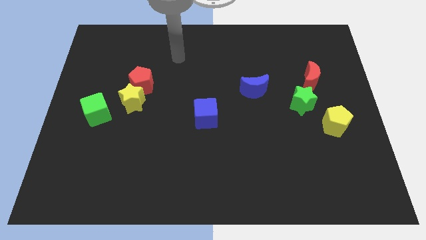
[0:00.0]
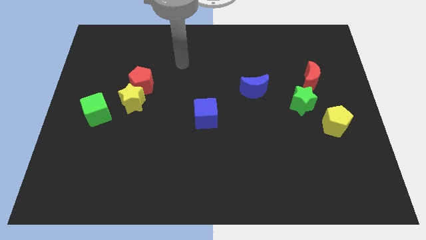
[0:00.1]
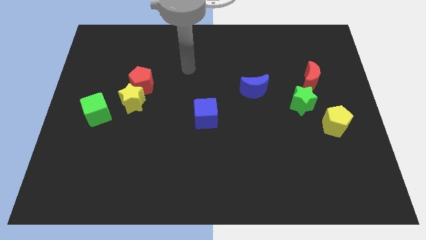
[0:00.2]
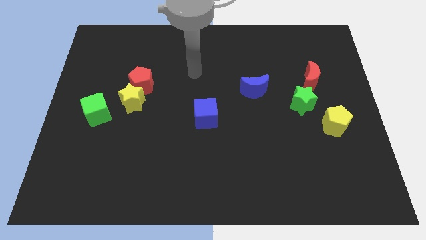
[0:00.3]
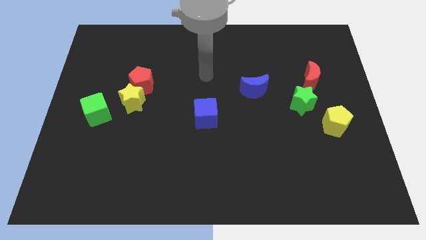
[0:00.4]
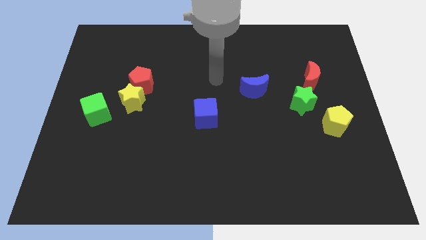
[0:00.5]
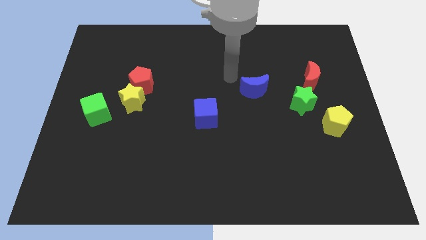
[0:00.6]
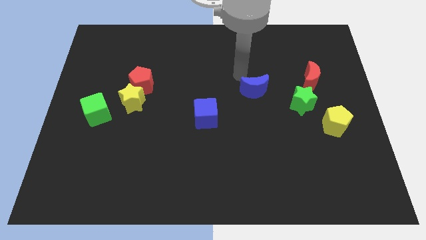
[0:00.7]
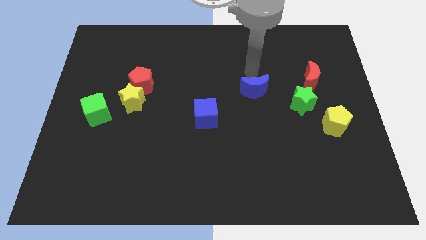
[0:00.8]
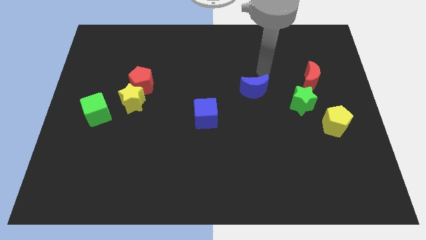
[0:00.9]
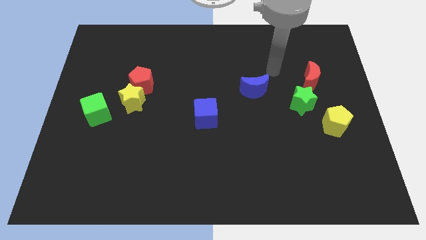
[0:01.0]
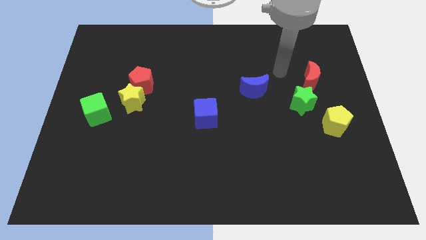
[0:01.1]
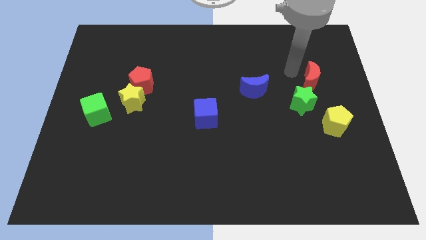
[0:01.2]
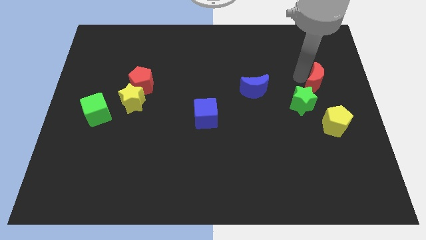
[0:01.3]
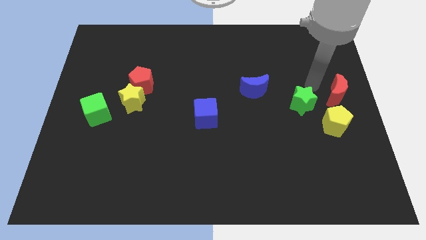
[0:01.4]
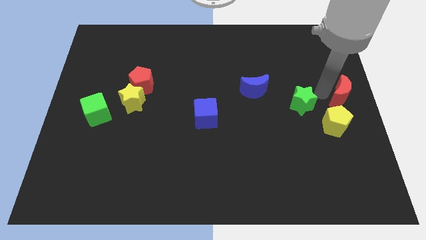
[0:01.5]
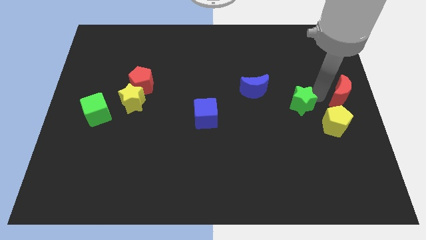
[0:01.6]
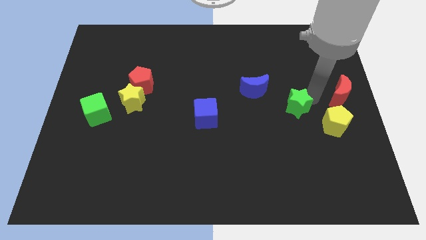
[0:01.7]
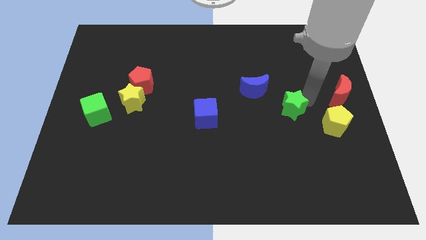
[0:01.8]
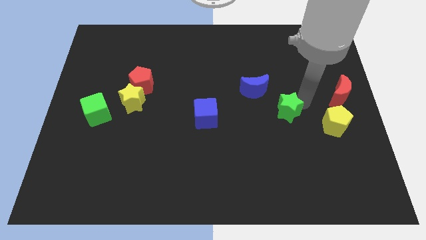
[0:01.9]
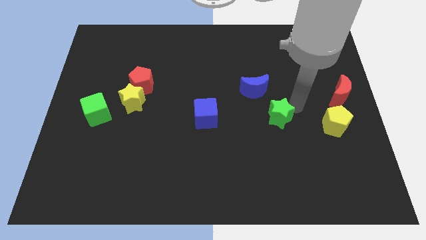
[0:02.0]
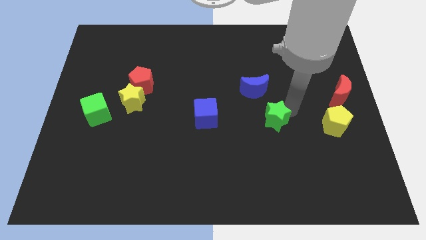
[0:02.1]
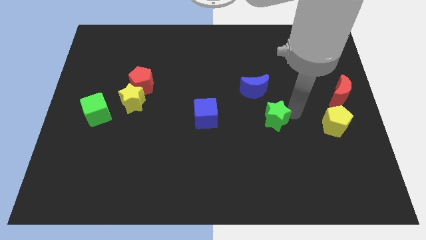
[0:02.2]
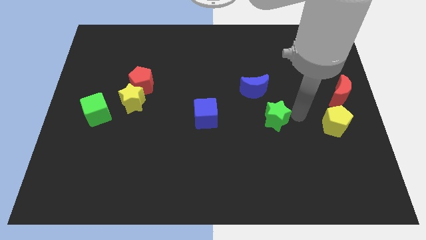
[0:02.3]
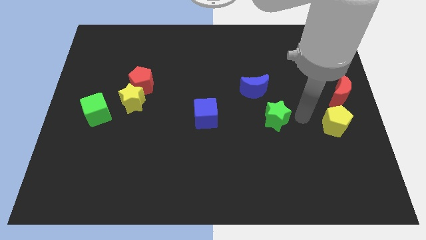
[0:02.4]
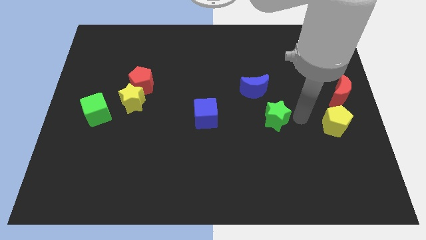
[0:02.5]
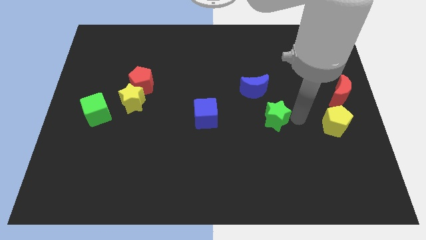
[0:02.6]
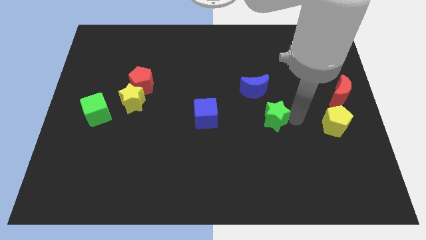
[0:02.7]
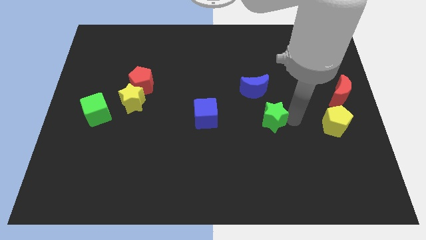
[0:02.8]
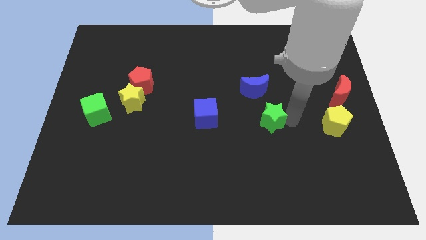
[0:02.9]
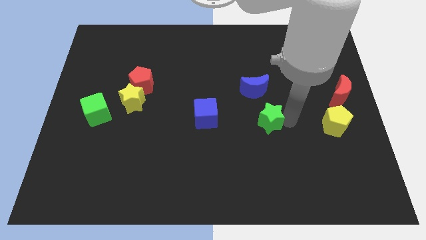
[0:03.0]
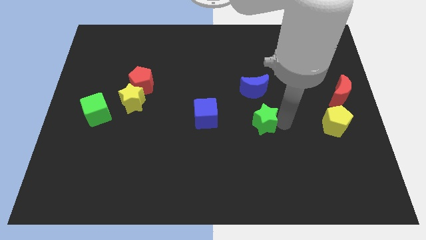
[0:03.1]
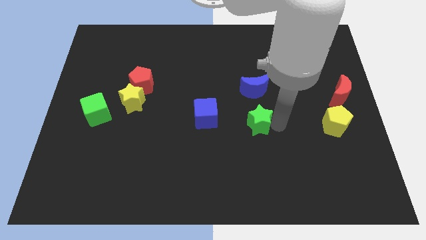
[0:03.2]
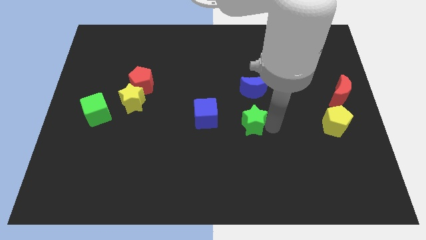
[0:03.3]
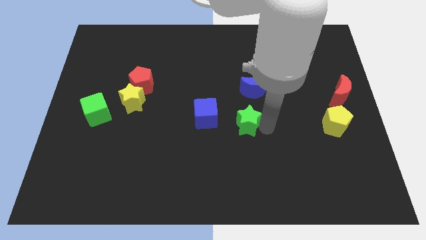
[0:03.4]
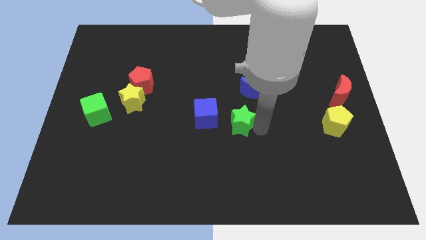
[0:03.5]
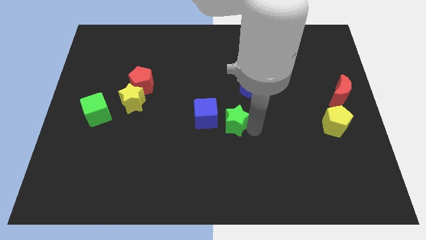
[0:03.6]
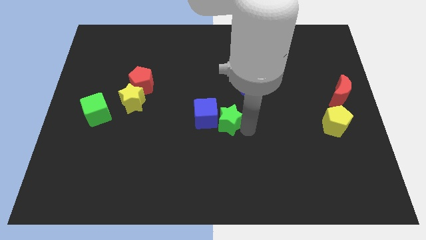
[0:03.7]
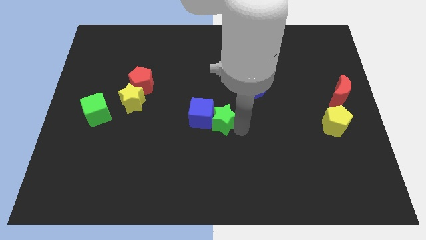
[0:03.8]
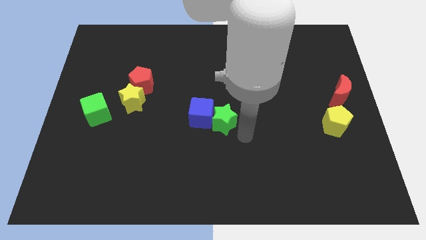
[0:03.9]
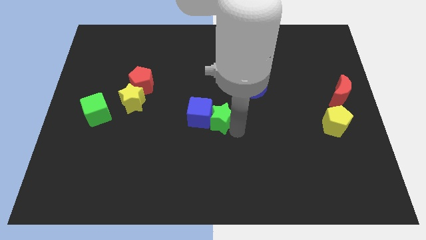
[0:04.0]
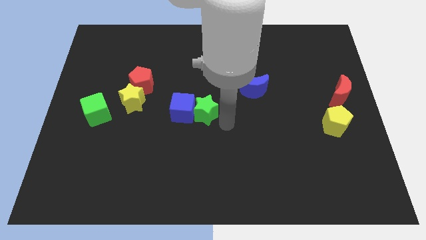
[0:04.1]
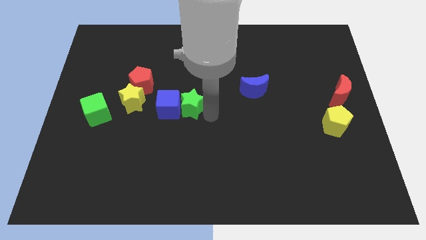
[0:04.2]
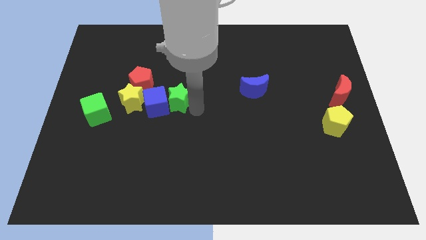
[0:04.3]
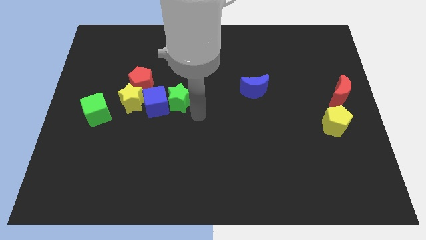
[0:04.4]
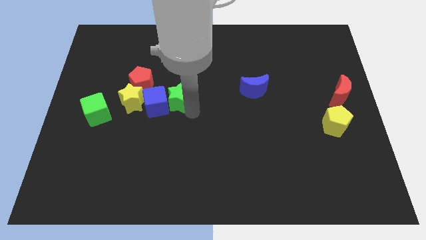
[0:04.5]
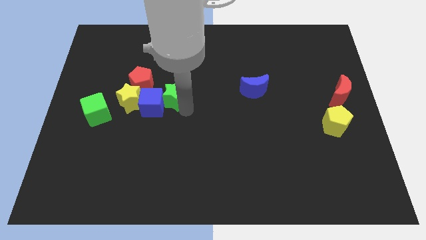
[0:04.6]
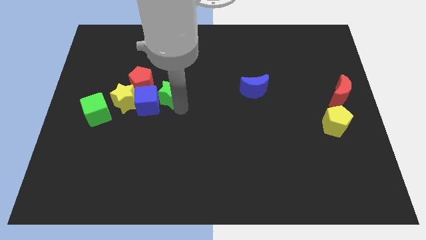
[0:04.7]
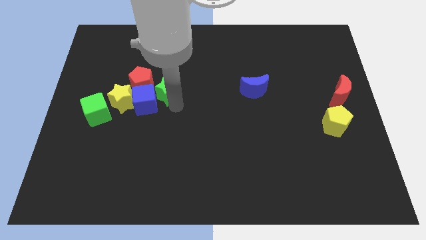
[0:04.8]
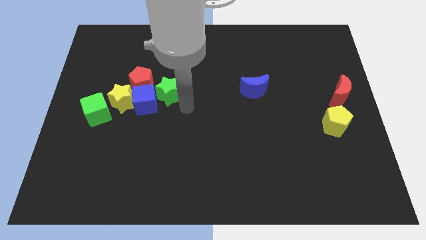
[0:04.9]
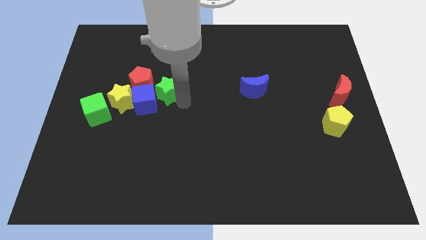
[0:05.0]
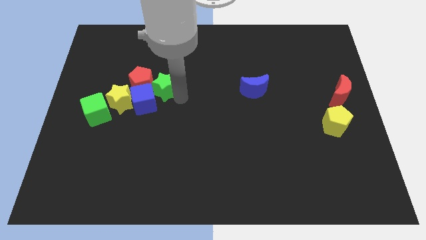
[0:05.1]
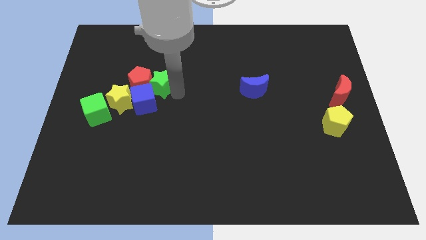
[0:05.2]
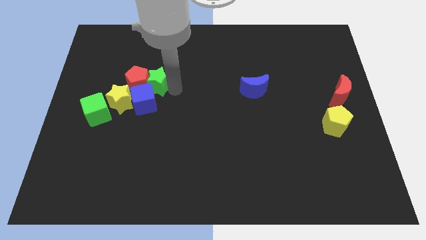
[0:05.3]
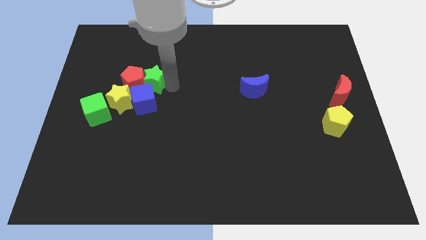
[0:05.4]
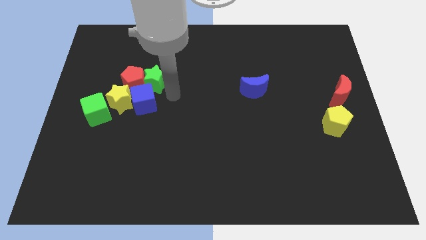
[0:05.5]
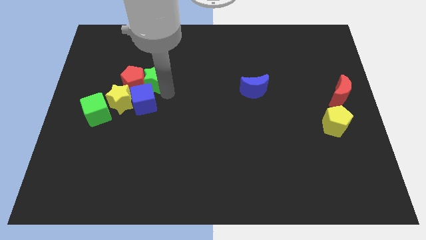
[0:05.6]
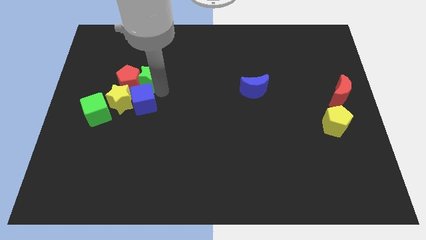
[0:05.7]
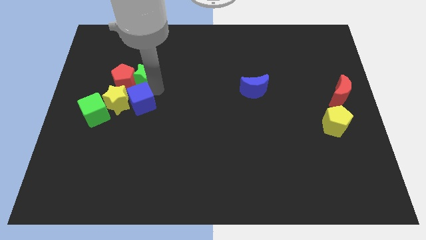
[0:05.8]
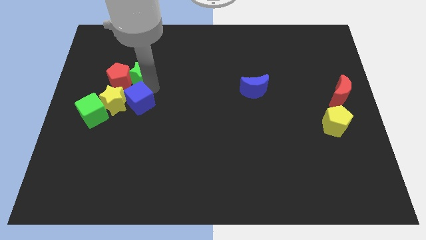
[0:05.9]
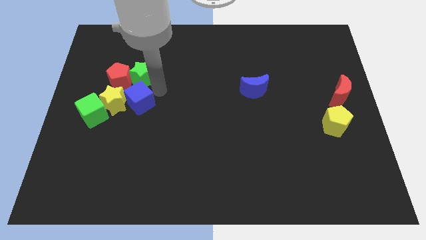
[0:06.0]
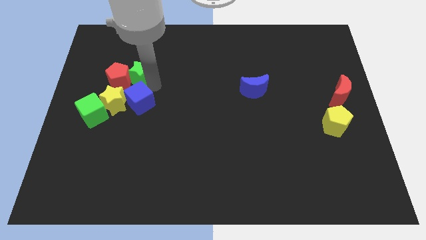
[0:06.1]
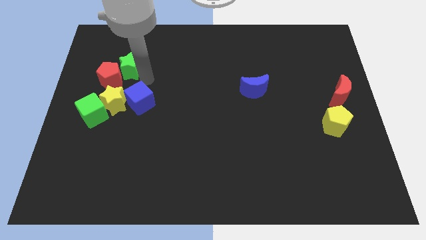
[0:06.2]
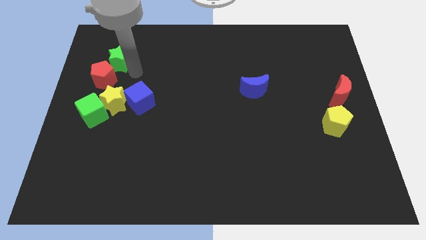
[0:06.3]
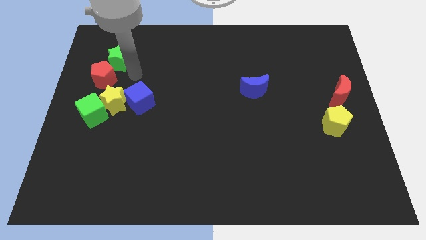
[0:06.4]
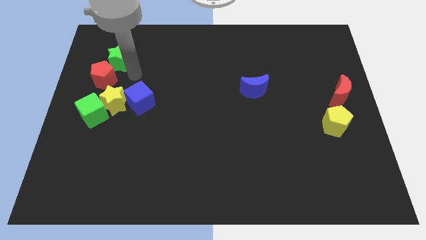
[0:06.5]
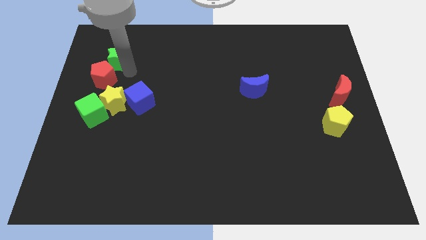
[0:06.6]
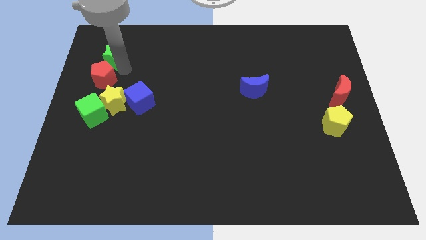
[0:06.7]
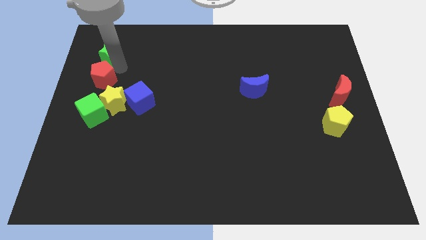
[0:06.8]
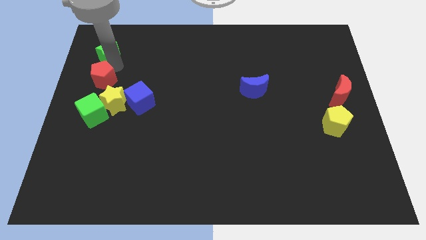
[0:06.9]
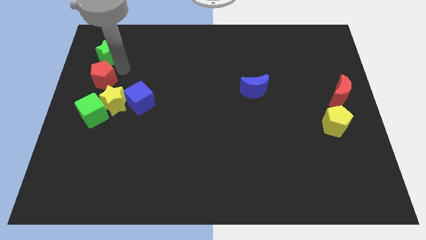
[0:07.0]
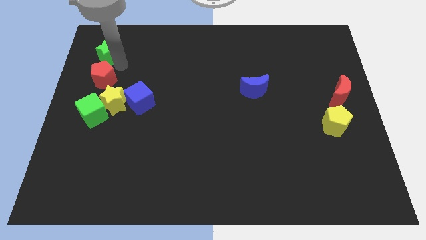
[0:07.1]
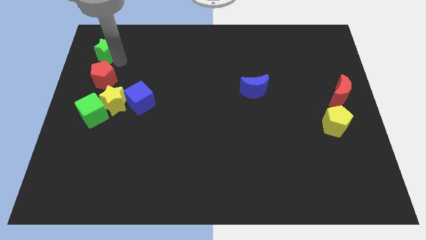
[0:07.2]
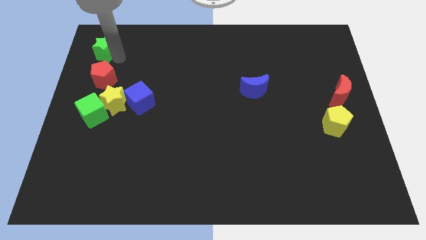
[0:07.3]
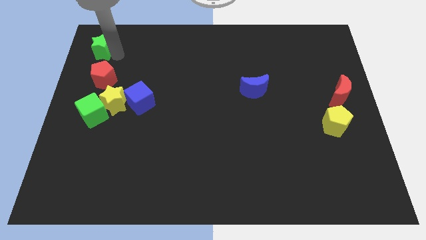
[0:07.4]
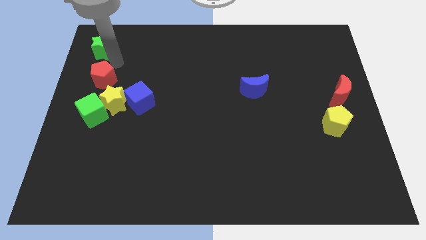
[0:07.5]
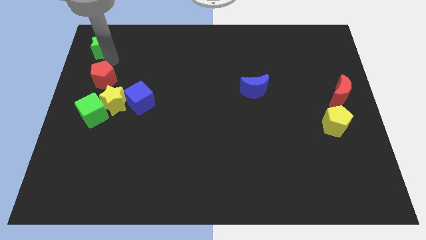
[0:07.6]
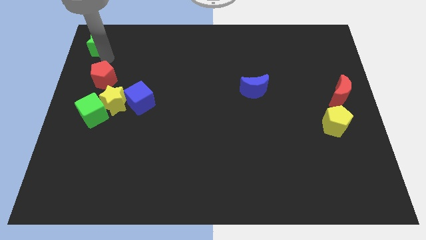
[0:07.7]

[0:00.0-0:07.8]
move the green star to the upper left corner
